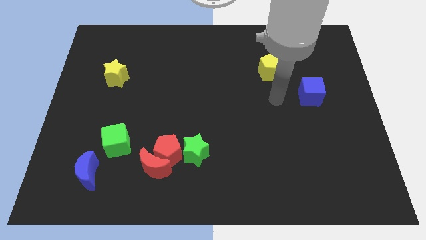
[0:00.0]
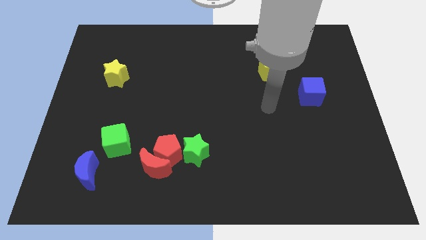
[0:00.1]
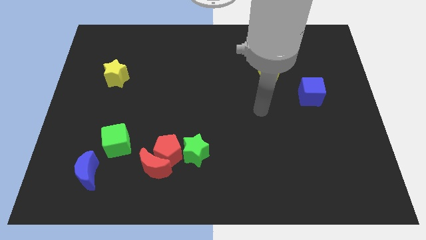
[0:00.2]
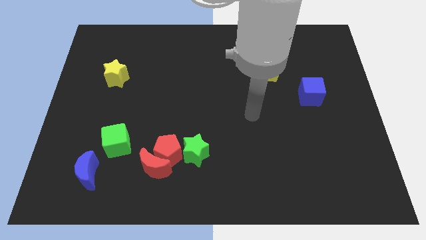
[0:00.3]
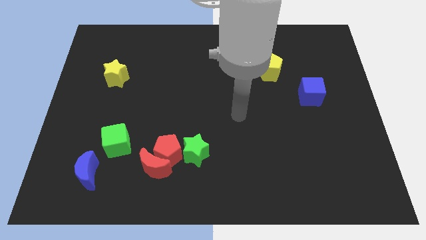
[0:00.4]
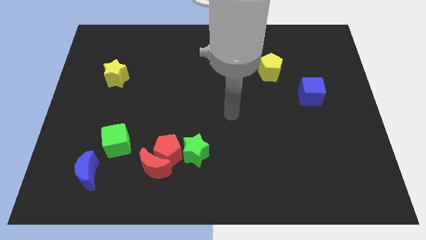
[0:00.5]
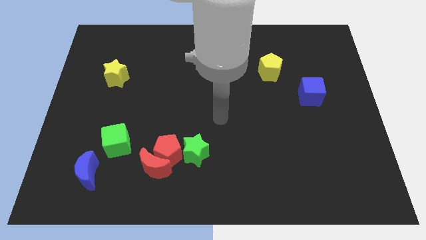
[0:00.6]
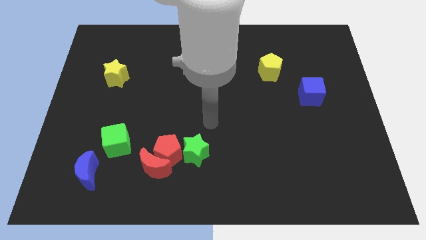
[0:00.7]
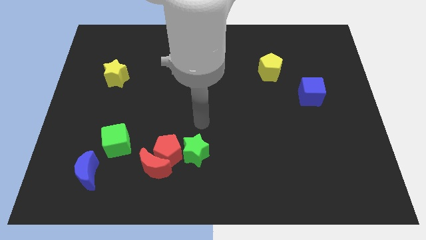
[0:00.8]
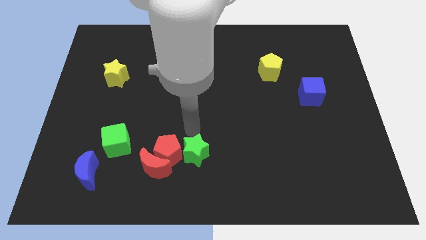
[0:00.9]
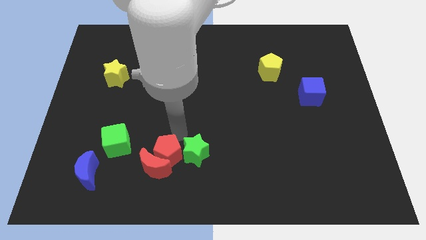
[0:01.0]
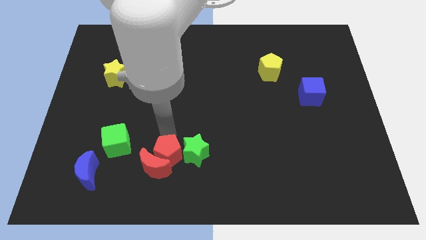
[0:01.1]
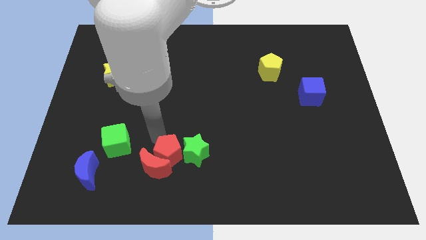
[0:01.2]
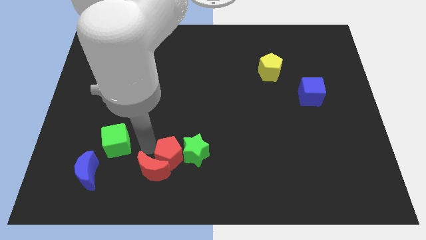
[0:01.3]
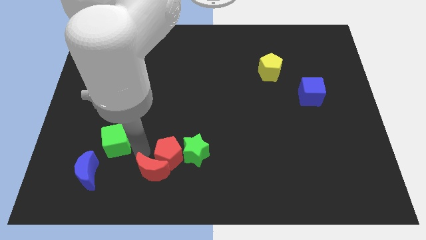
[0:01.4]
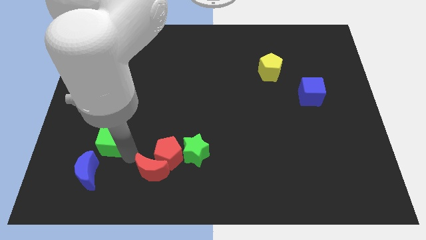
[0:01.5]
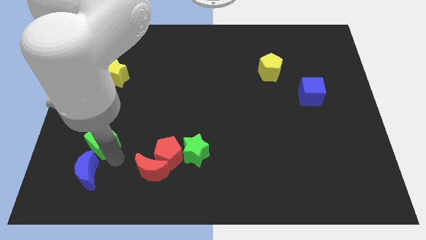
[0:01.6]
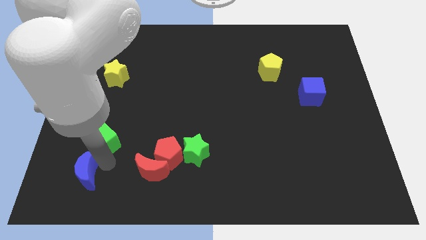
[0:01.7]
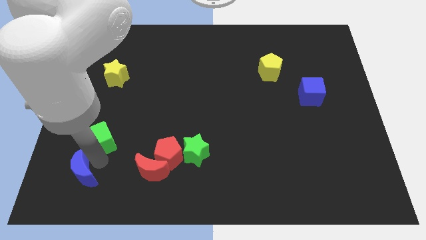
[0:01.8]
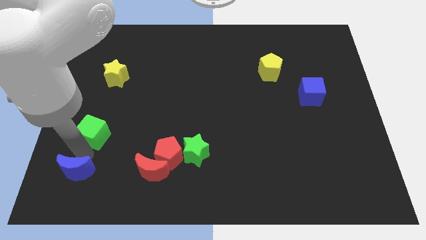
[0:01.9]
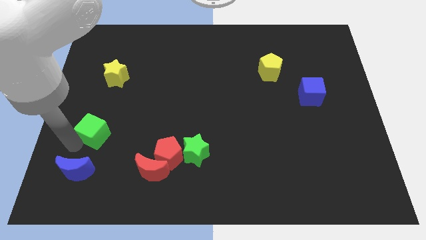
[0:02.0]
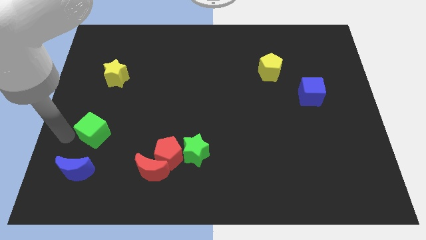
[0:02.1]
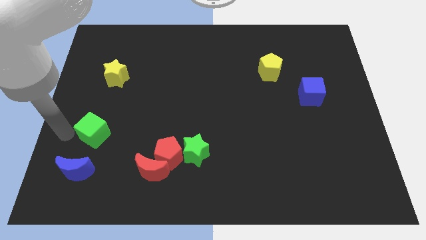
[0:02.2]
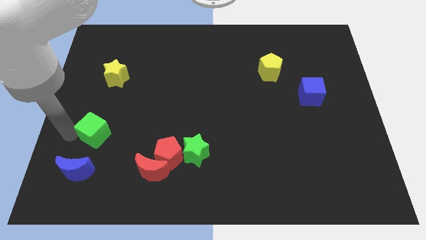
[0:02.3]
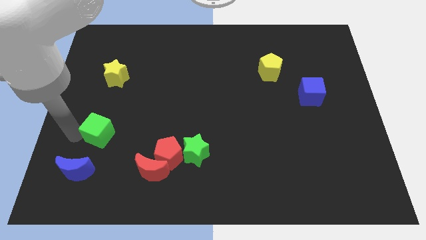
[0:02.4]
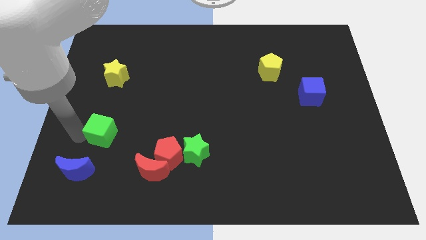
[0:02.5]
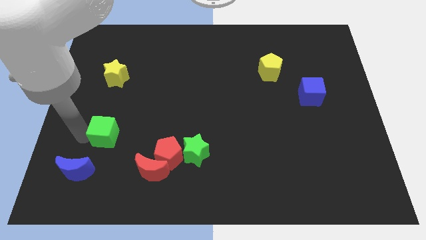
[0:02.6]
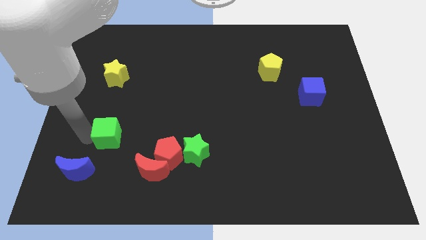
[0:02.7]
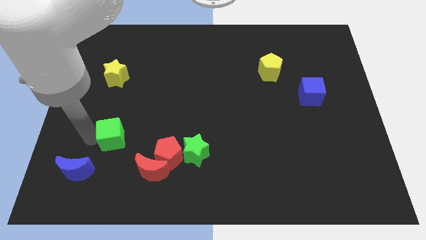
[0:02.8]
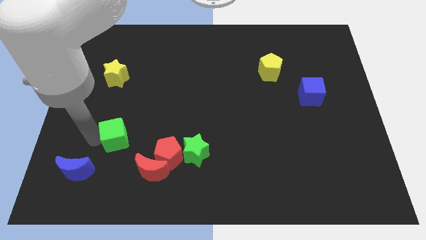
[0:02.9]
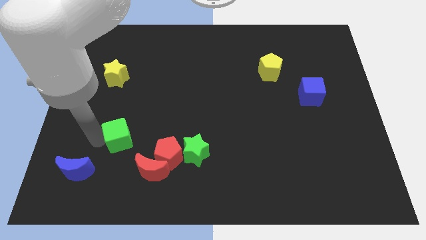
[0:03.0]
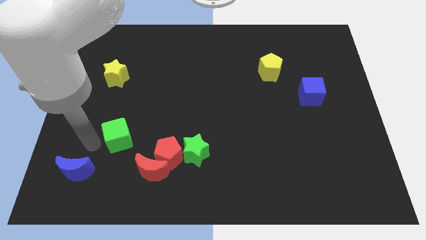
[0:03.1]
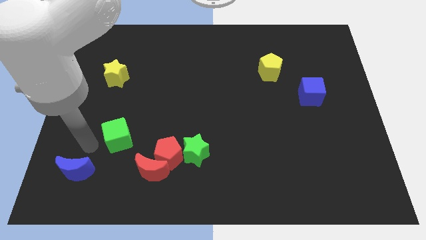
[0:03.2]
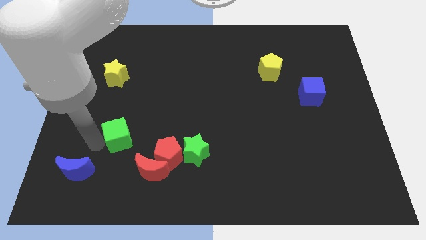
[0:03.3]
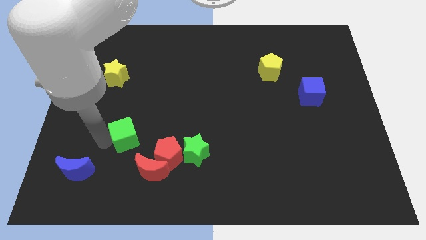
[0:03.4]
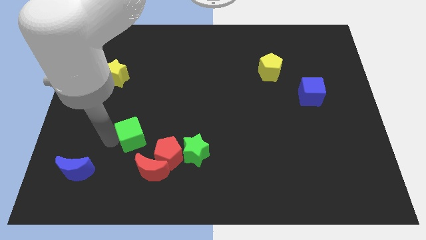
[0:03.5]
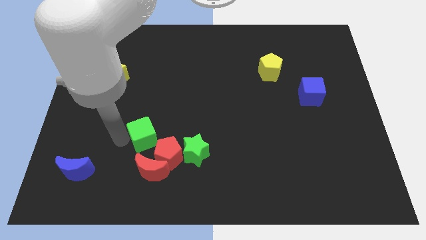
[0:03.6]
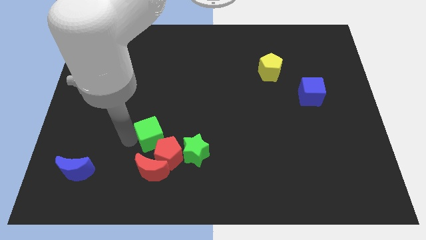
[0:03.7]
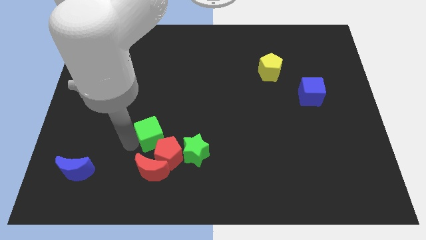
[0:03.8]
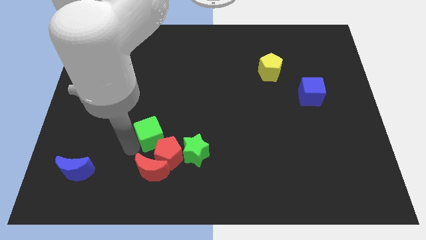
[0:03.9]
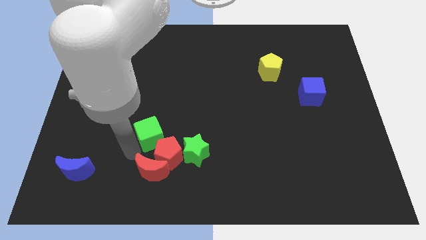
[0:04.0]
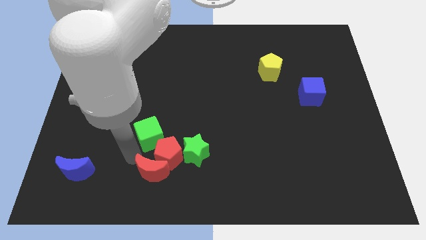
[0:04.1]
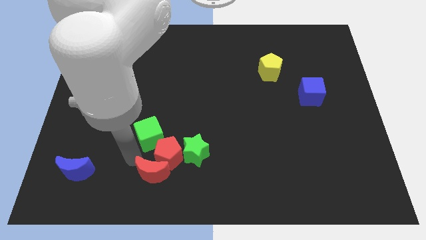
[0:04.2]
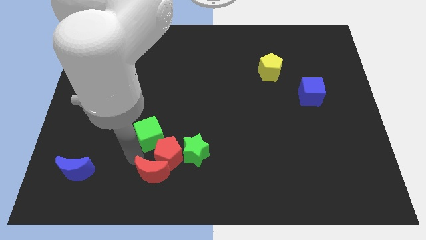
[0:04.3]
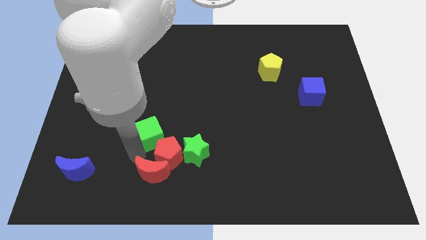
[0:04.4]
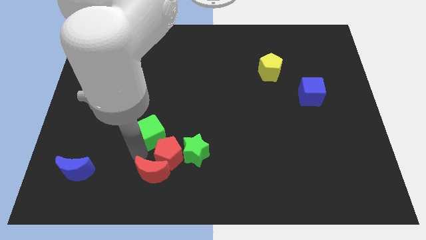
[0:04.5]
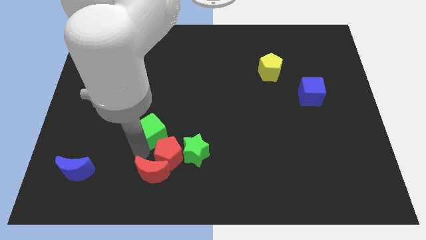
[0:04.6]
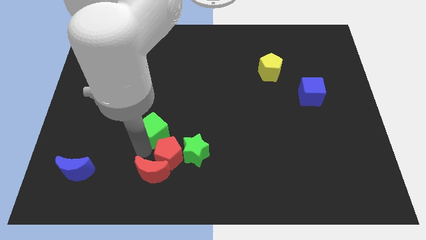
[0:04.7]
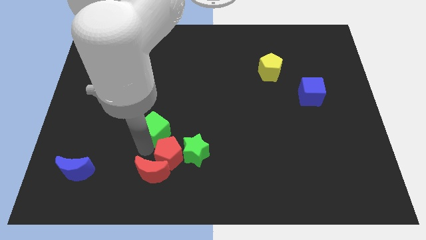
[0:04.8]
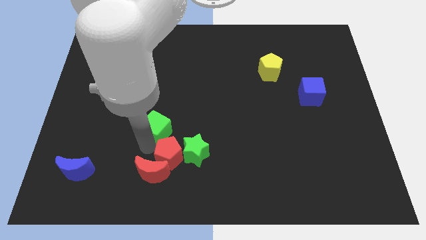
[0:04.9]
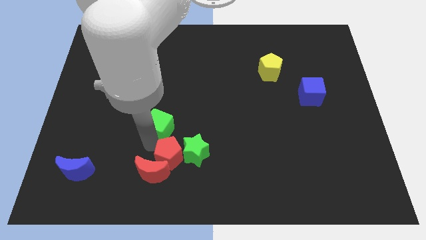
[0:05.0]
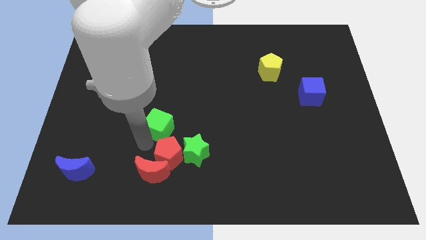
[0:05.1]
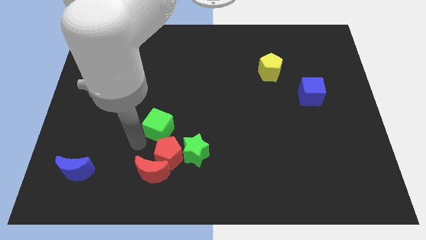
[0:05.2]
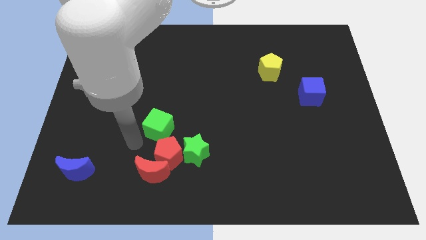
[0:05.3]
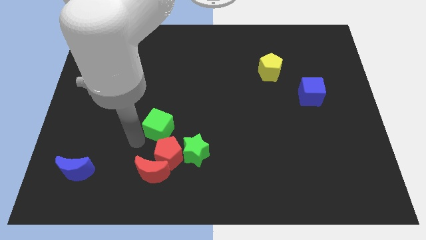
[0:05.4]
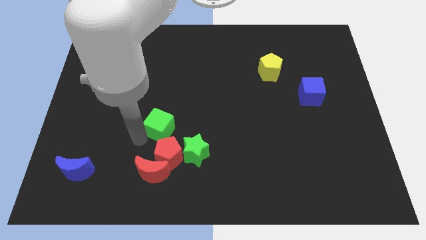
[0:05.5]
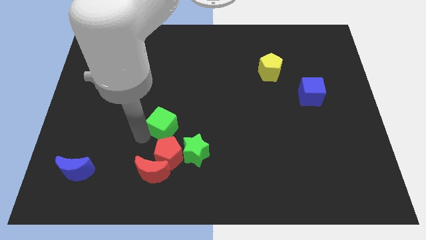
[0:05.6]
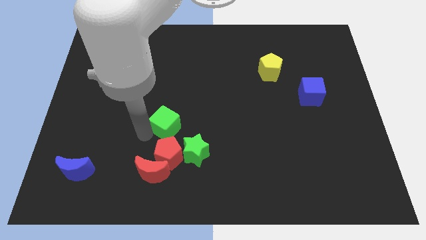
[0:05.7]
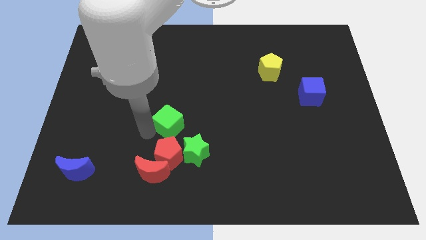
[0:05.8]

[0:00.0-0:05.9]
slide the green cube to the center of the board

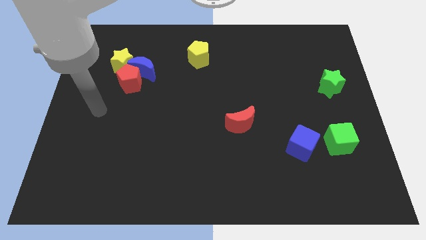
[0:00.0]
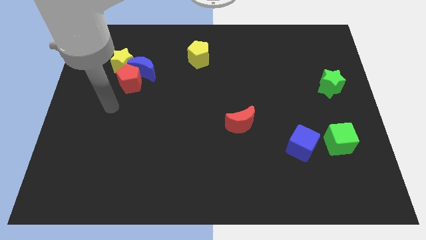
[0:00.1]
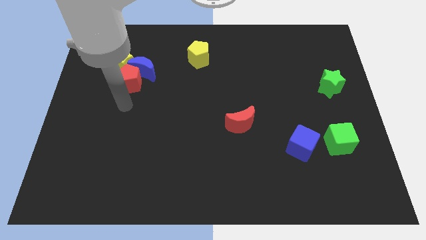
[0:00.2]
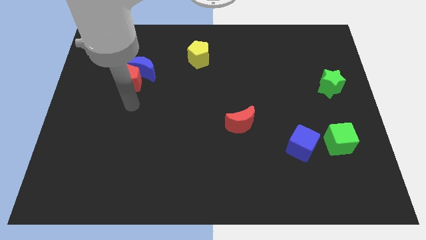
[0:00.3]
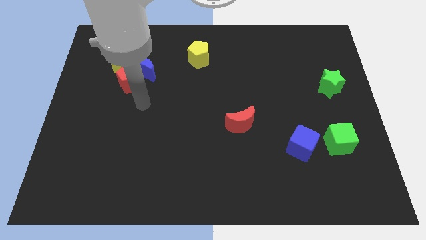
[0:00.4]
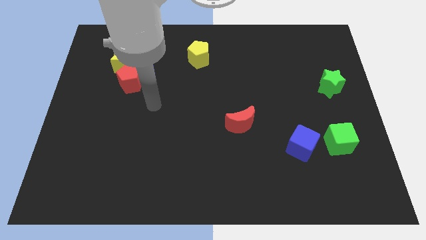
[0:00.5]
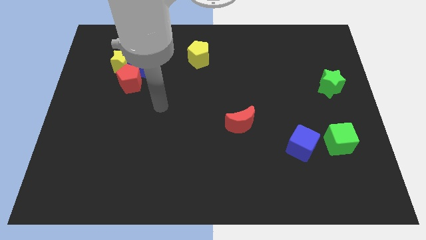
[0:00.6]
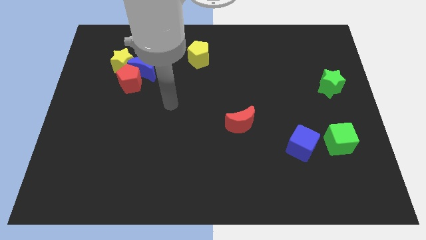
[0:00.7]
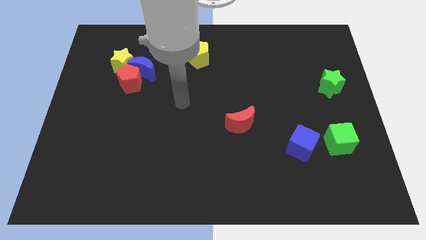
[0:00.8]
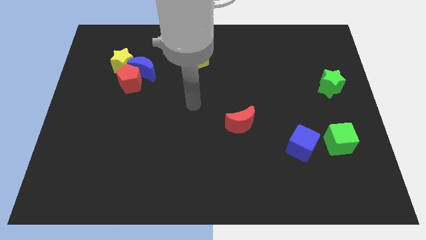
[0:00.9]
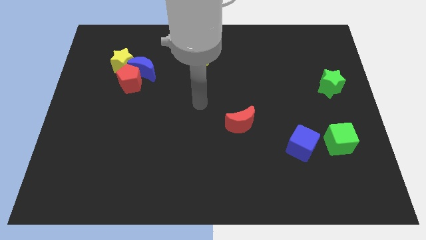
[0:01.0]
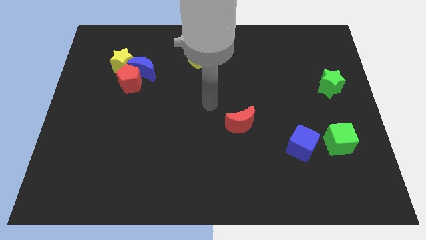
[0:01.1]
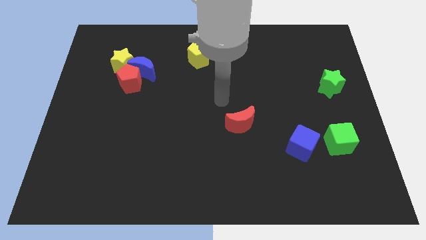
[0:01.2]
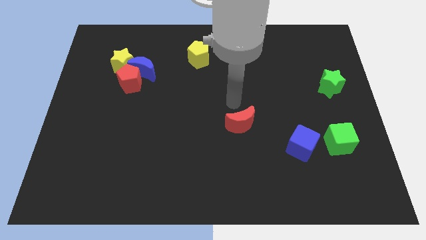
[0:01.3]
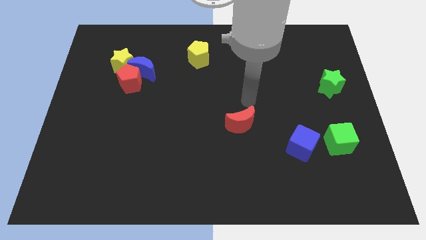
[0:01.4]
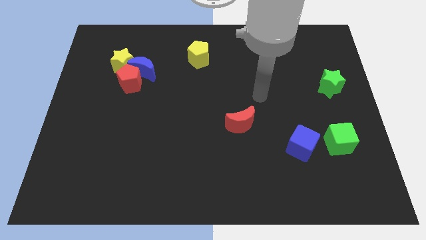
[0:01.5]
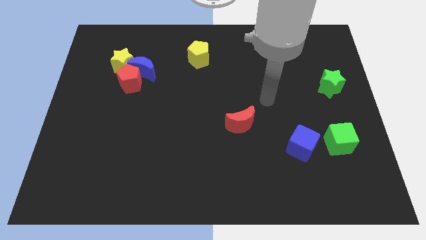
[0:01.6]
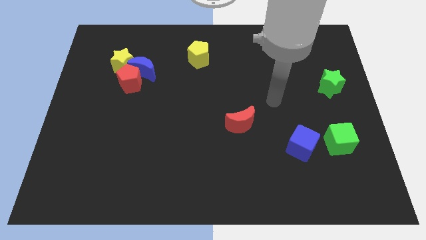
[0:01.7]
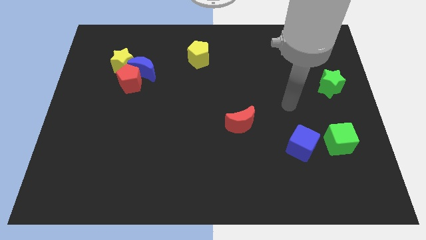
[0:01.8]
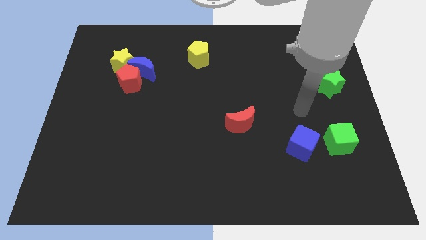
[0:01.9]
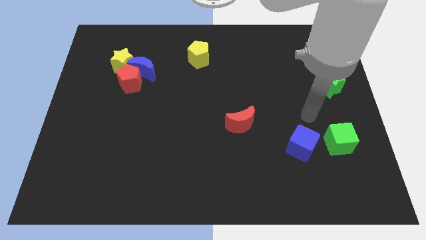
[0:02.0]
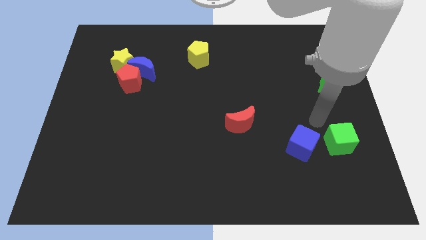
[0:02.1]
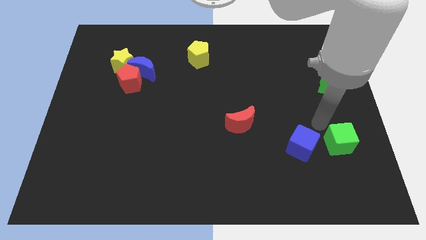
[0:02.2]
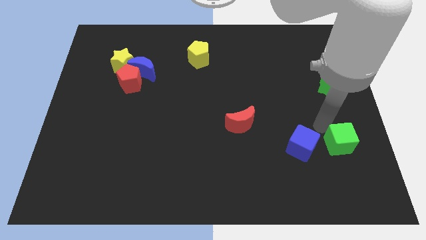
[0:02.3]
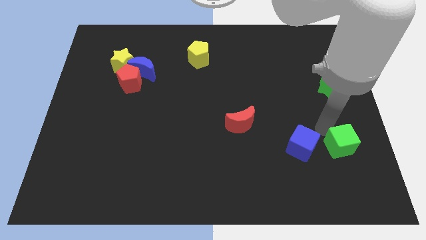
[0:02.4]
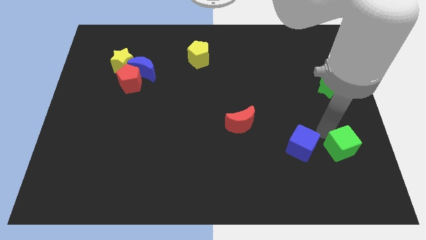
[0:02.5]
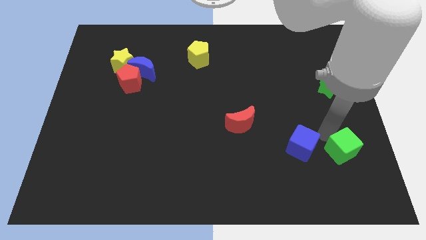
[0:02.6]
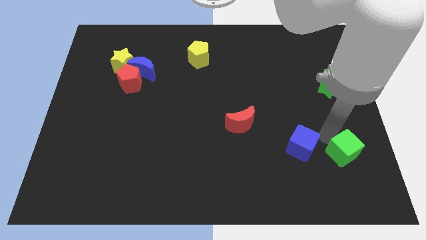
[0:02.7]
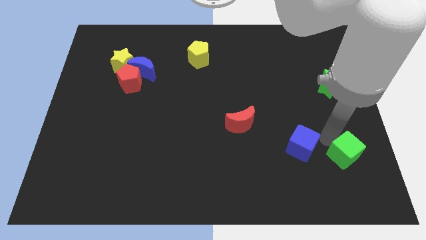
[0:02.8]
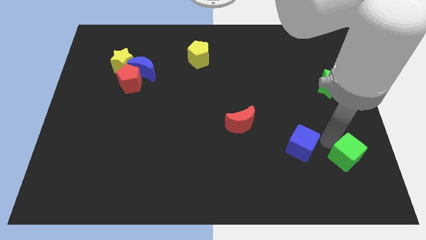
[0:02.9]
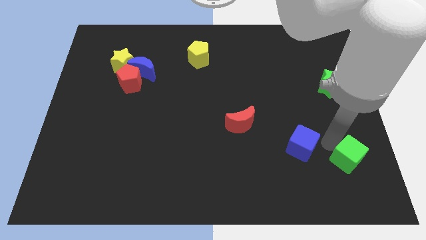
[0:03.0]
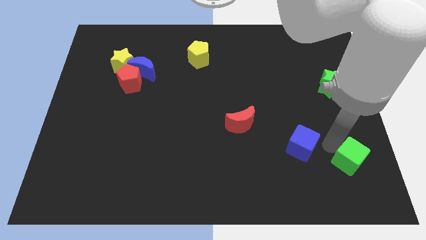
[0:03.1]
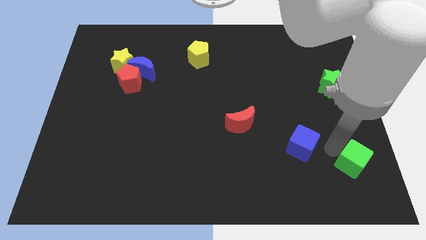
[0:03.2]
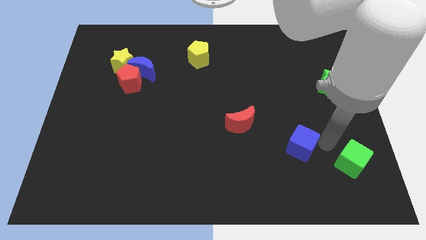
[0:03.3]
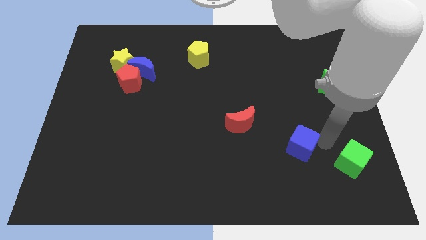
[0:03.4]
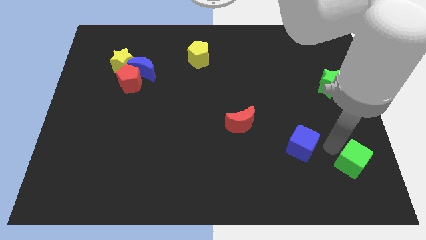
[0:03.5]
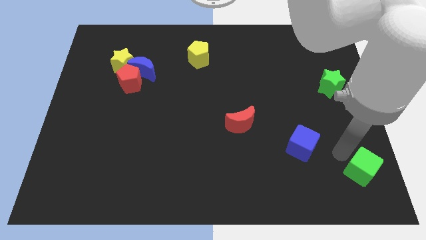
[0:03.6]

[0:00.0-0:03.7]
move the green cube to the bottom right of the board
